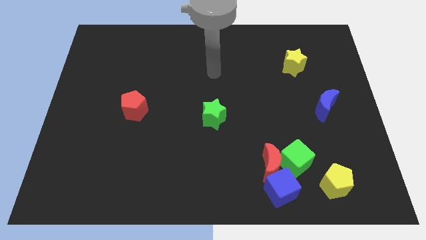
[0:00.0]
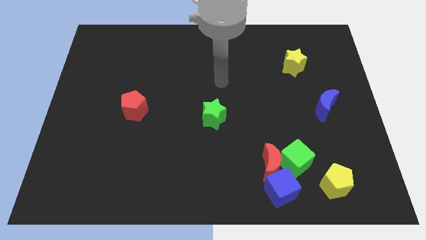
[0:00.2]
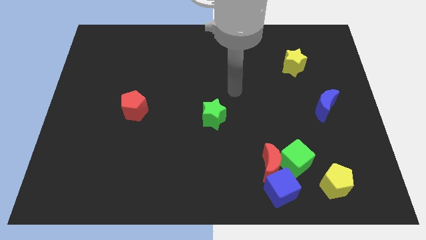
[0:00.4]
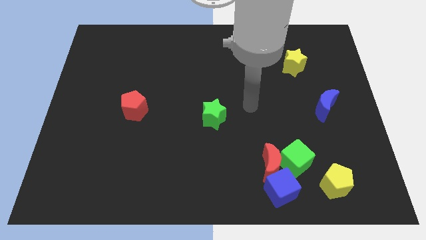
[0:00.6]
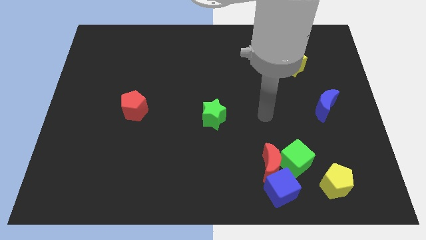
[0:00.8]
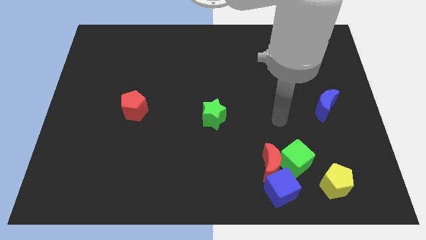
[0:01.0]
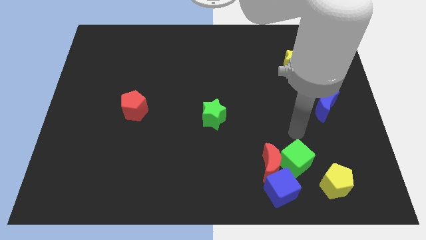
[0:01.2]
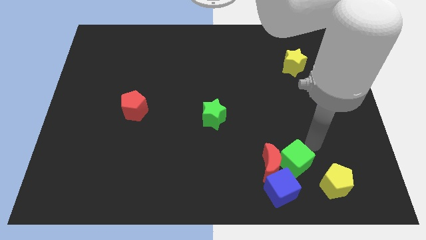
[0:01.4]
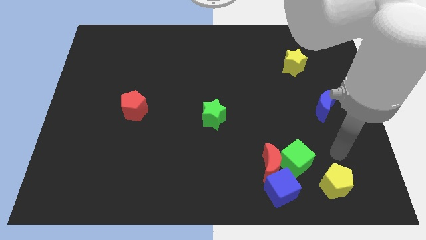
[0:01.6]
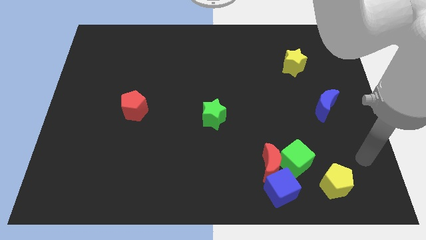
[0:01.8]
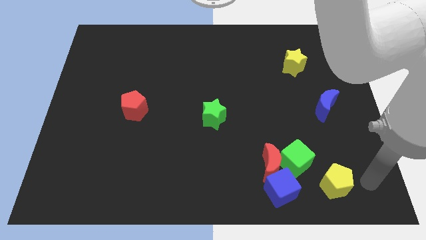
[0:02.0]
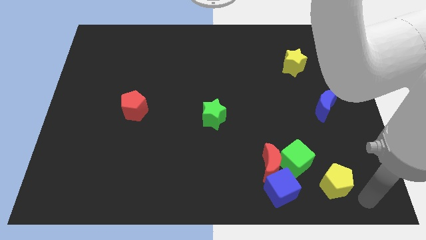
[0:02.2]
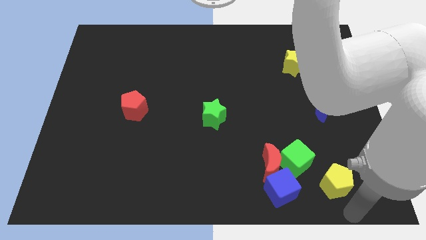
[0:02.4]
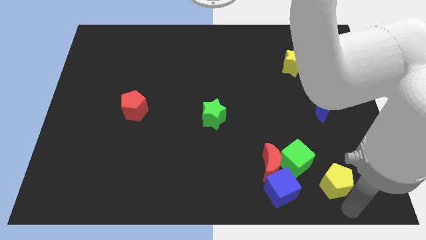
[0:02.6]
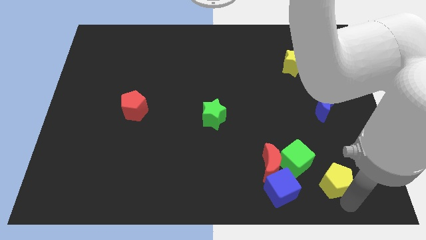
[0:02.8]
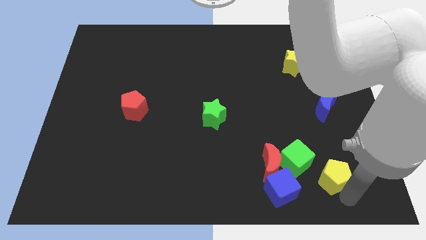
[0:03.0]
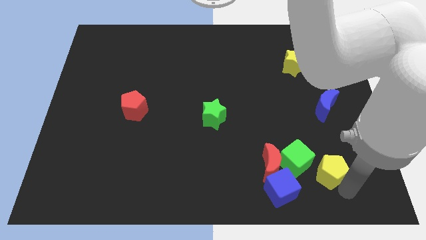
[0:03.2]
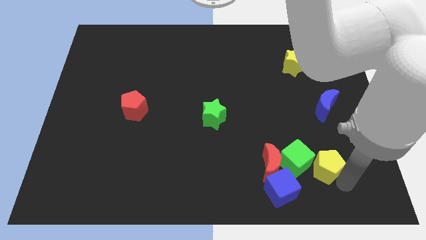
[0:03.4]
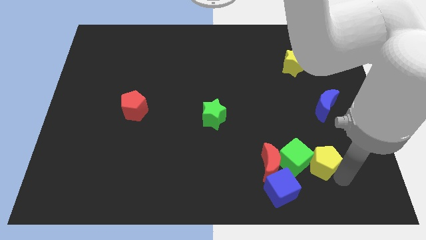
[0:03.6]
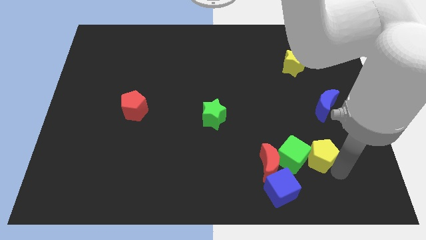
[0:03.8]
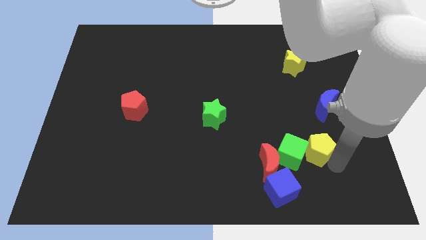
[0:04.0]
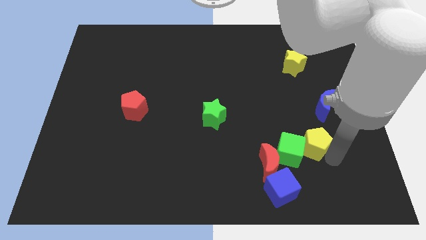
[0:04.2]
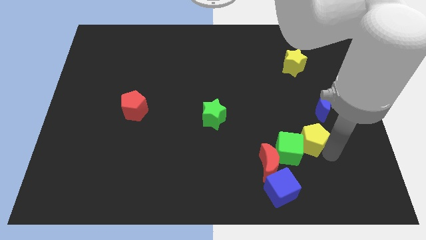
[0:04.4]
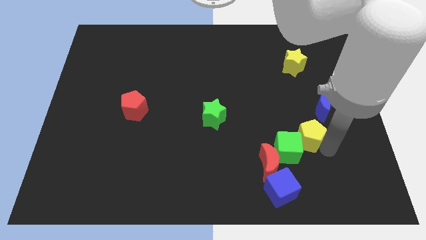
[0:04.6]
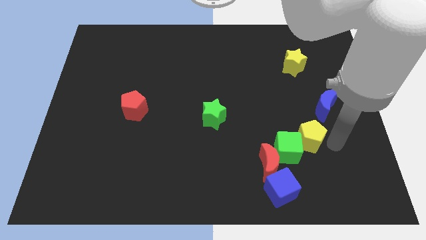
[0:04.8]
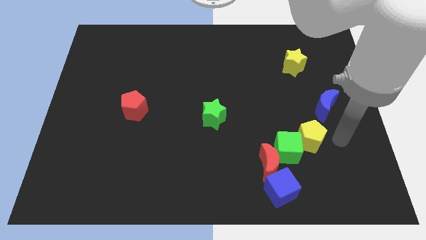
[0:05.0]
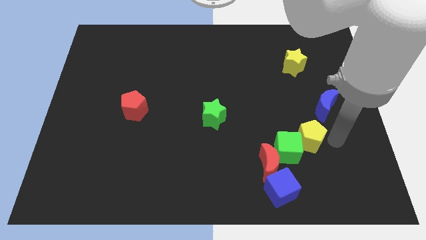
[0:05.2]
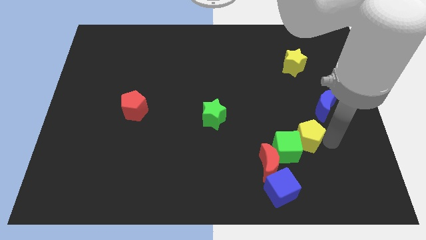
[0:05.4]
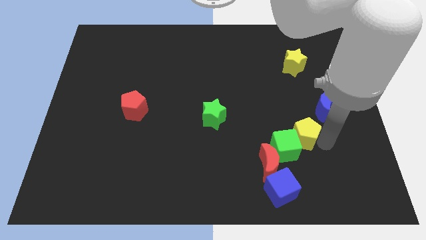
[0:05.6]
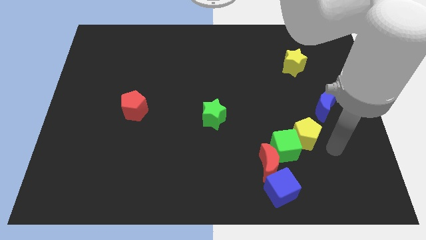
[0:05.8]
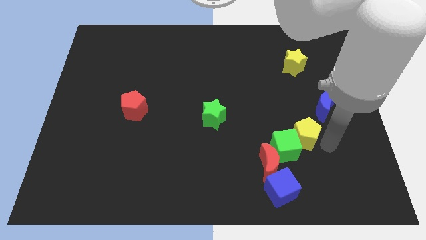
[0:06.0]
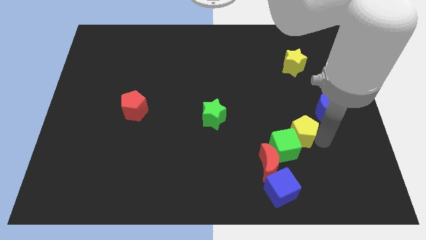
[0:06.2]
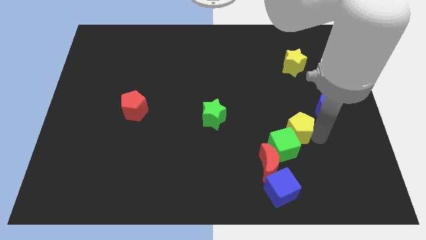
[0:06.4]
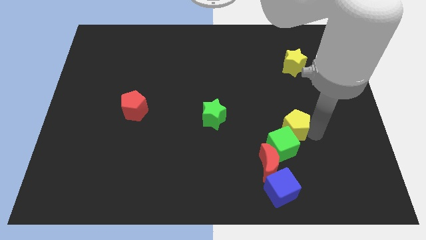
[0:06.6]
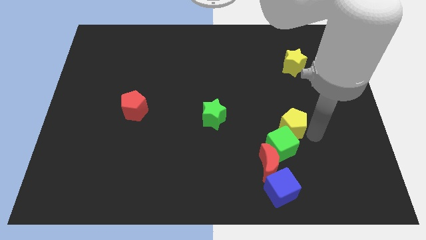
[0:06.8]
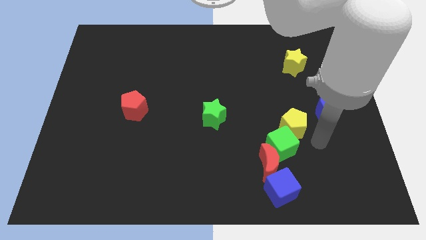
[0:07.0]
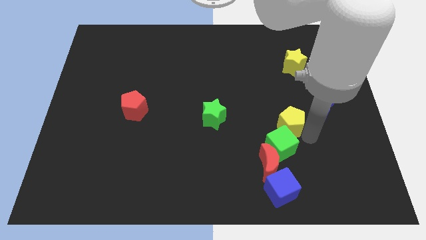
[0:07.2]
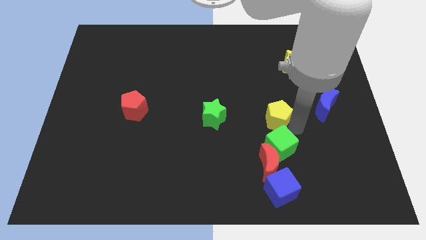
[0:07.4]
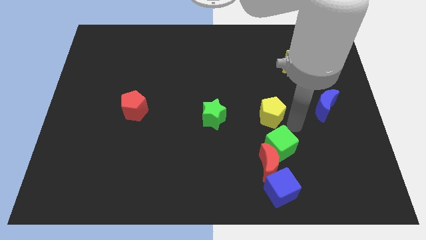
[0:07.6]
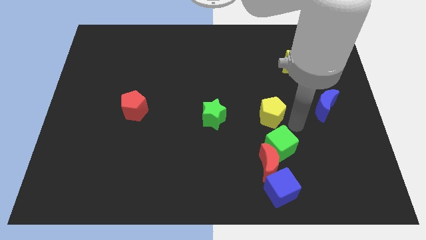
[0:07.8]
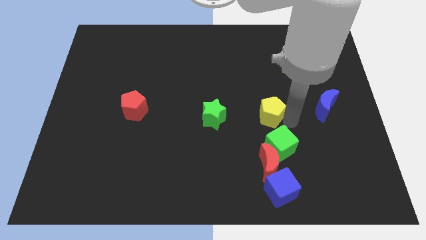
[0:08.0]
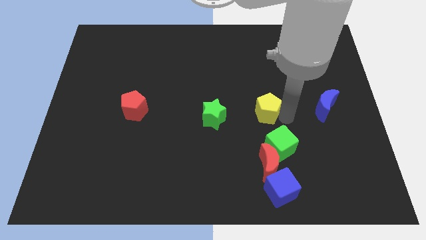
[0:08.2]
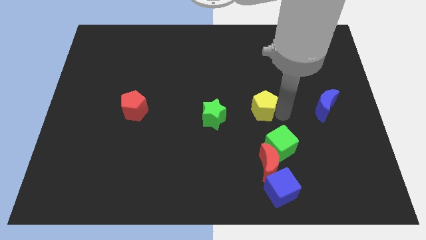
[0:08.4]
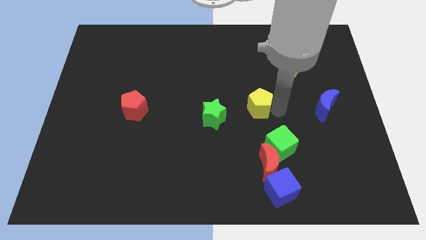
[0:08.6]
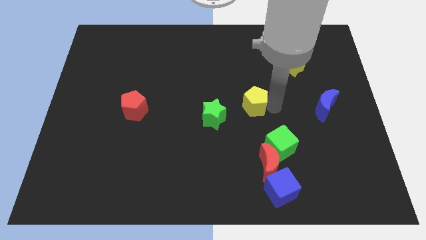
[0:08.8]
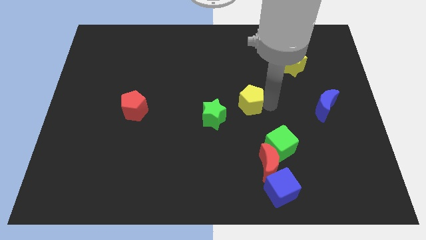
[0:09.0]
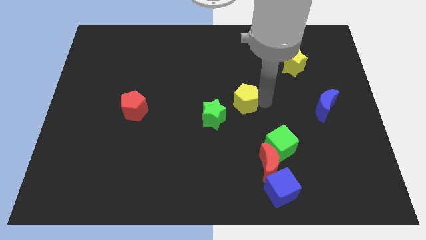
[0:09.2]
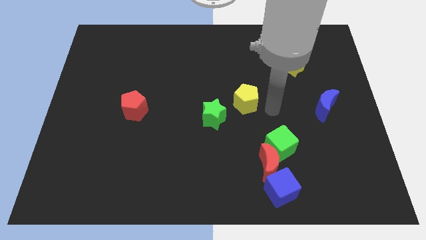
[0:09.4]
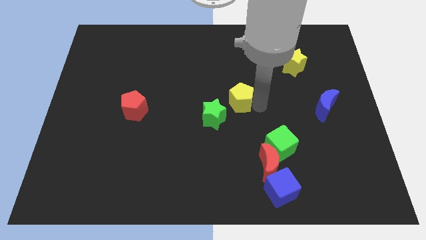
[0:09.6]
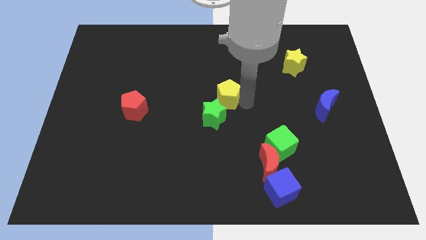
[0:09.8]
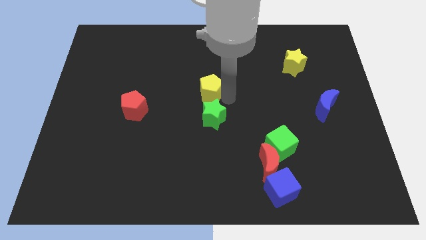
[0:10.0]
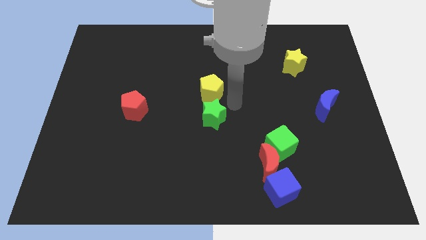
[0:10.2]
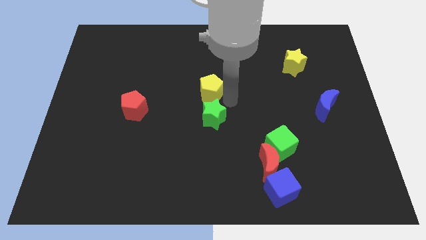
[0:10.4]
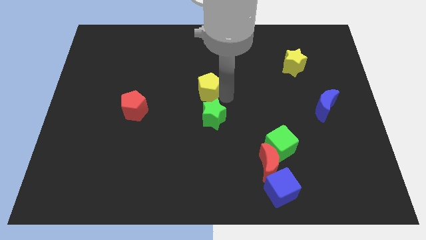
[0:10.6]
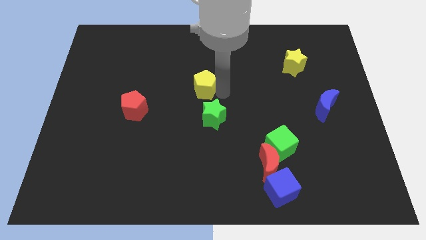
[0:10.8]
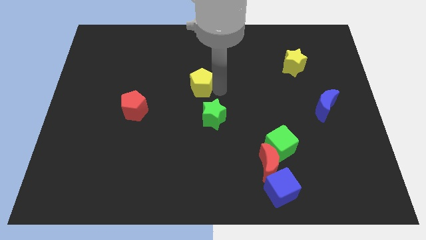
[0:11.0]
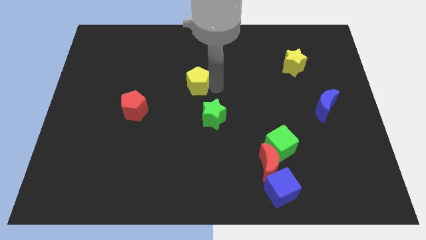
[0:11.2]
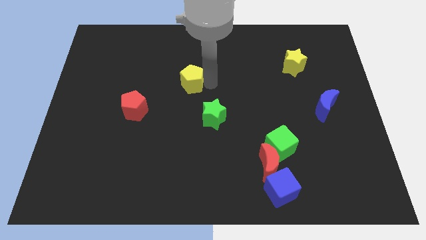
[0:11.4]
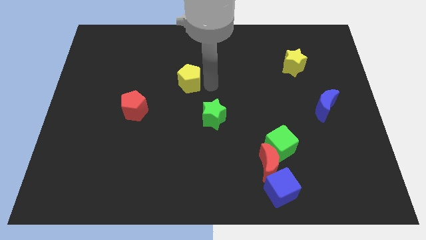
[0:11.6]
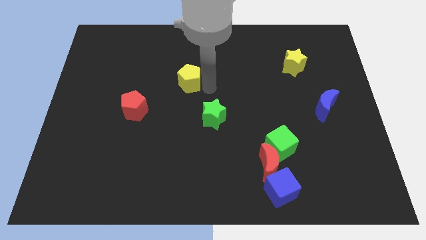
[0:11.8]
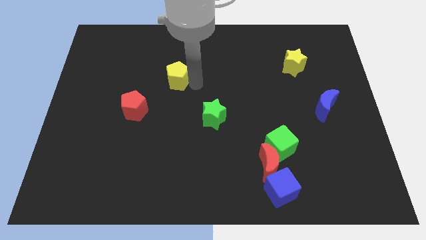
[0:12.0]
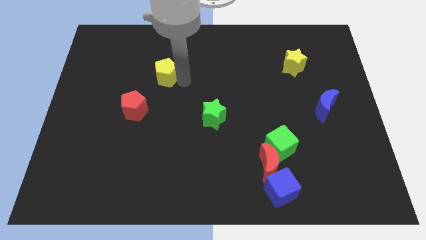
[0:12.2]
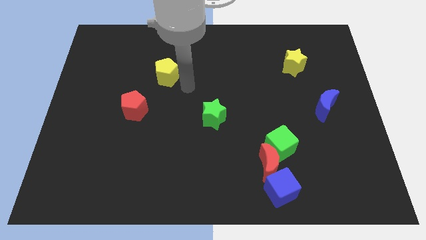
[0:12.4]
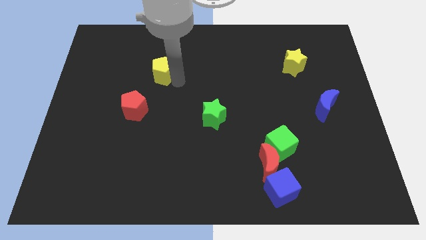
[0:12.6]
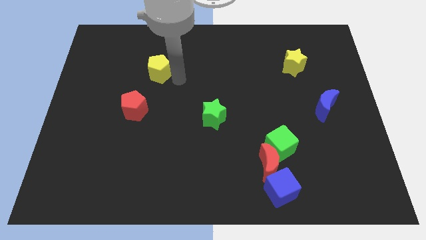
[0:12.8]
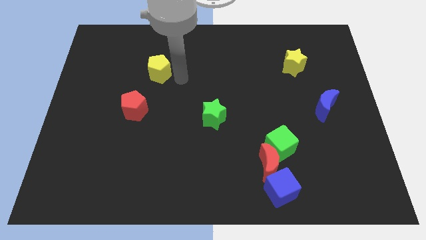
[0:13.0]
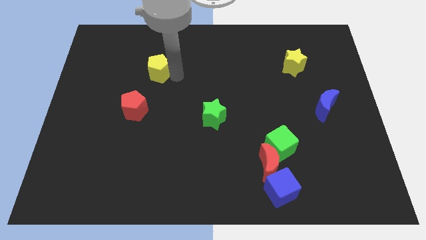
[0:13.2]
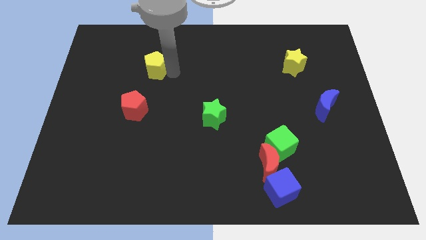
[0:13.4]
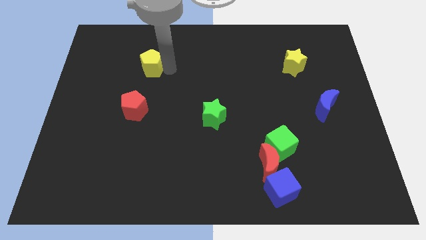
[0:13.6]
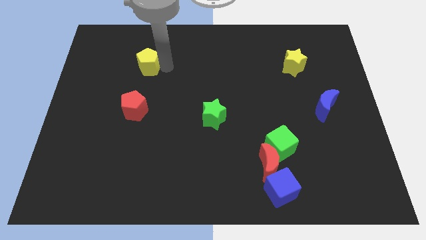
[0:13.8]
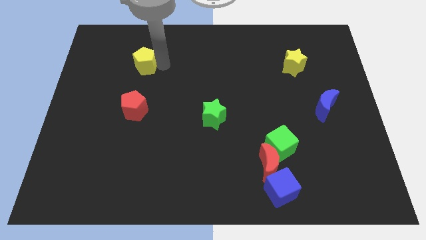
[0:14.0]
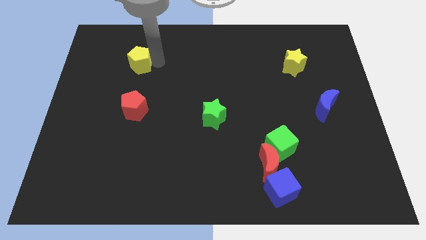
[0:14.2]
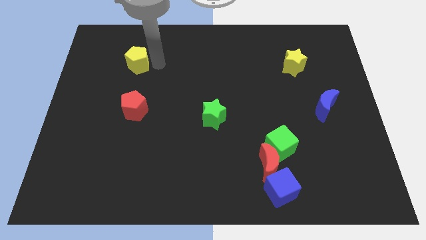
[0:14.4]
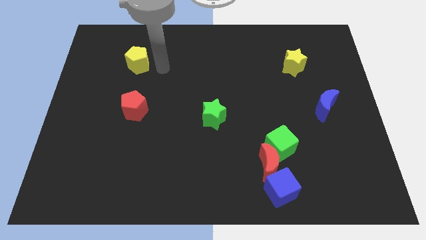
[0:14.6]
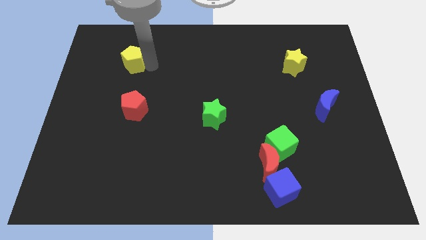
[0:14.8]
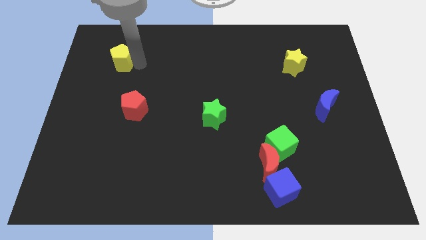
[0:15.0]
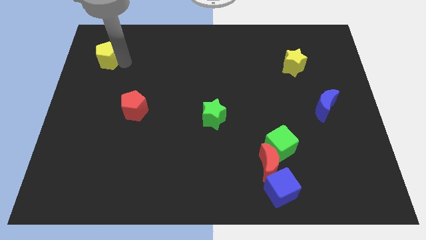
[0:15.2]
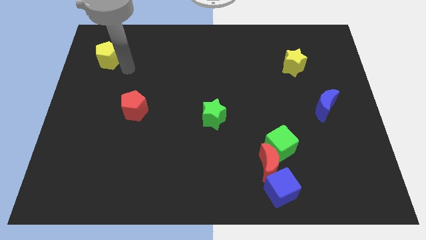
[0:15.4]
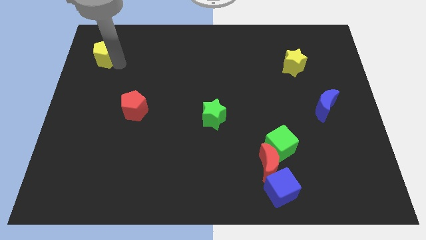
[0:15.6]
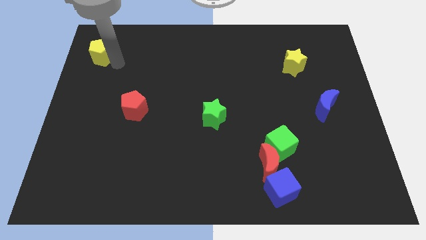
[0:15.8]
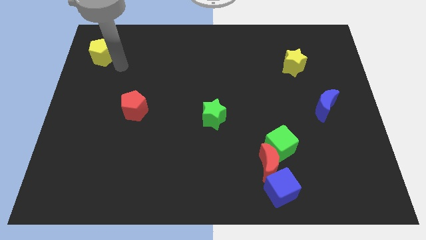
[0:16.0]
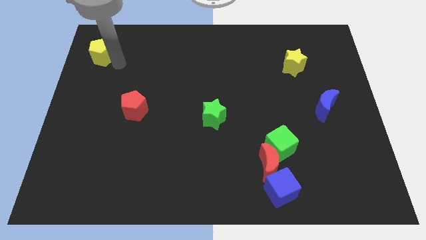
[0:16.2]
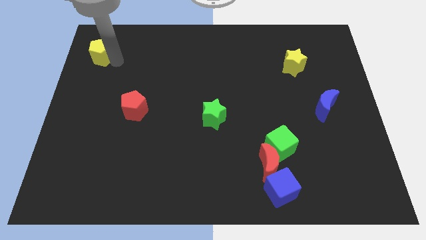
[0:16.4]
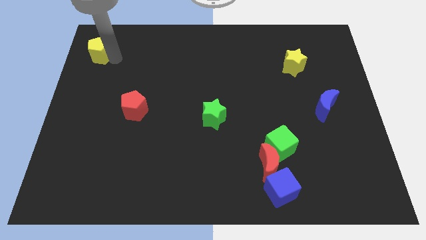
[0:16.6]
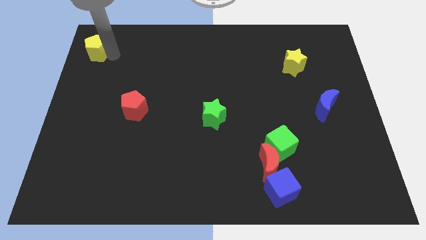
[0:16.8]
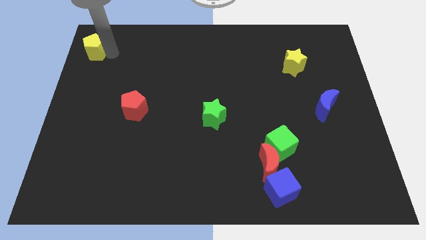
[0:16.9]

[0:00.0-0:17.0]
slide the yellow pentagon to the top left corner
